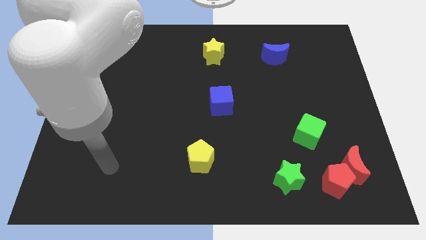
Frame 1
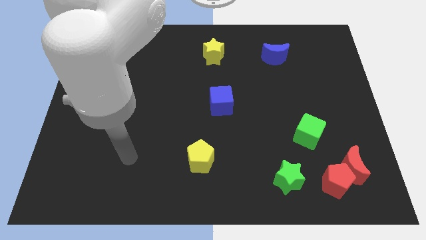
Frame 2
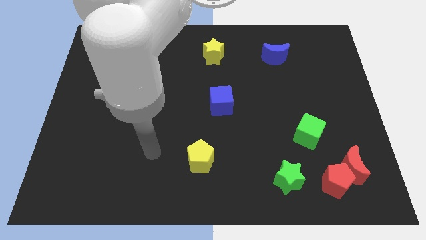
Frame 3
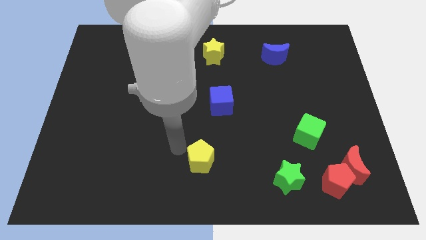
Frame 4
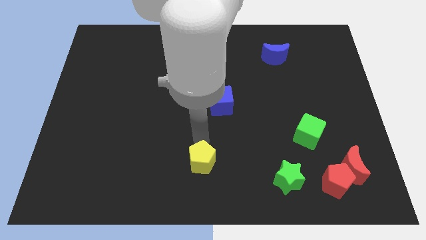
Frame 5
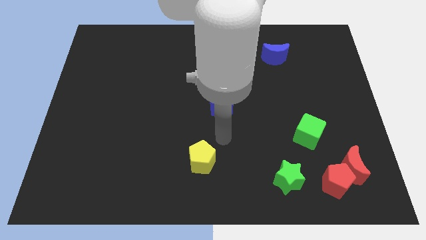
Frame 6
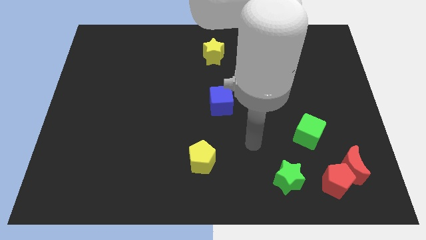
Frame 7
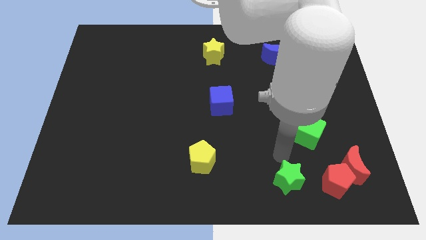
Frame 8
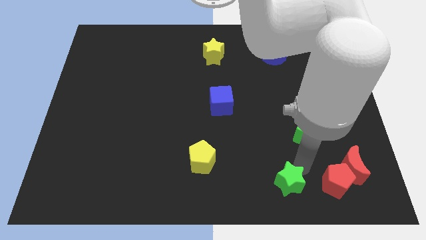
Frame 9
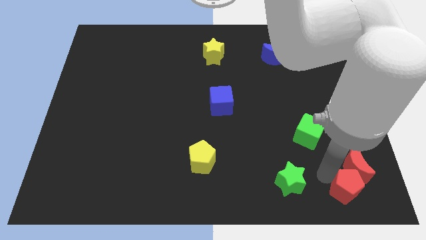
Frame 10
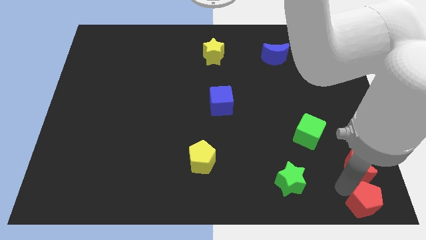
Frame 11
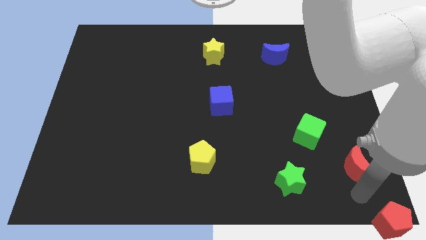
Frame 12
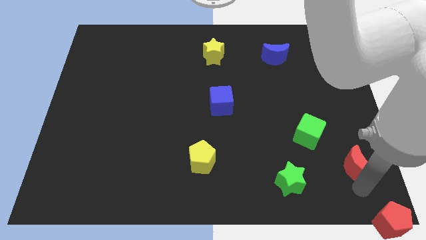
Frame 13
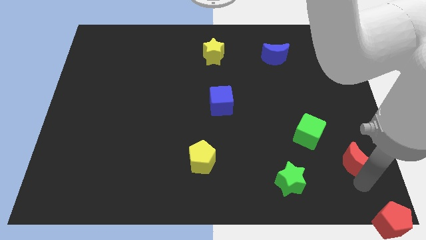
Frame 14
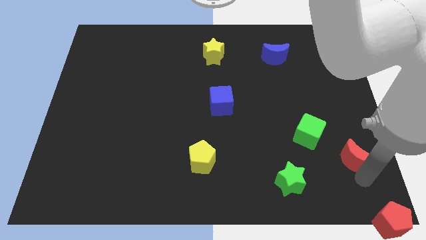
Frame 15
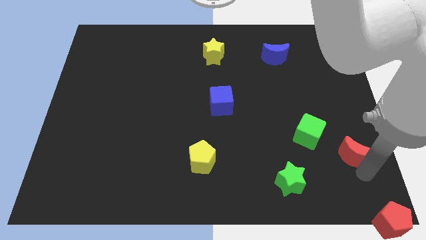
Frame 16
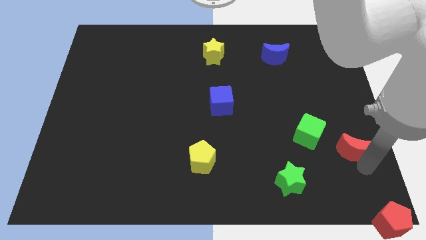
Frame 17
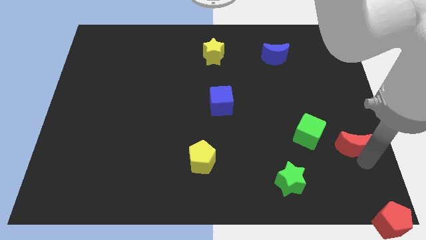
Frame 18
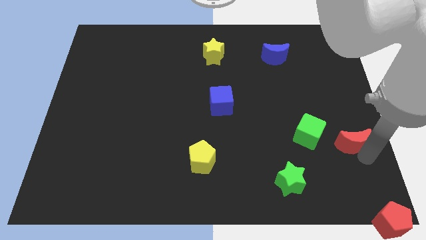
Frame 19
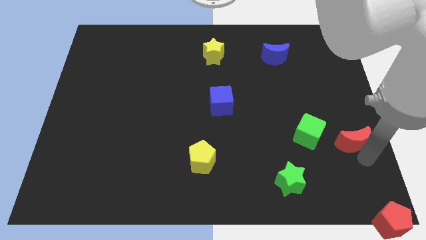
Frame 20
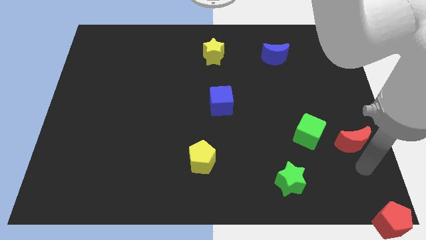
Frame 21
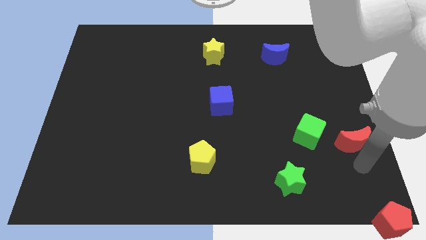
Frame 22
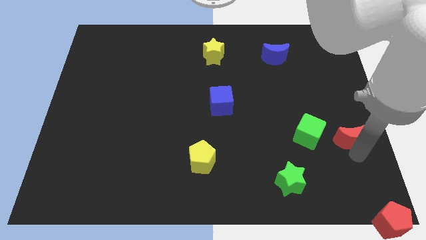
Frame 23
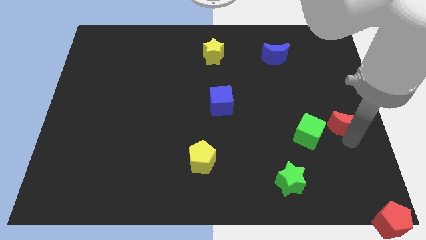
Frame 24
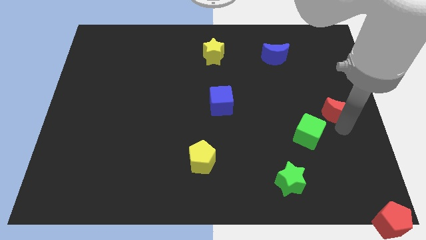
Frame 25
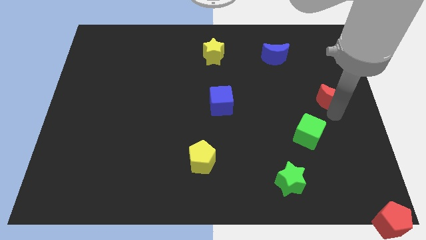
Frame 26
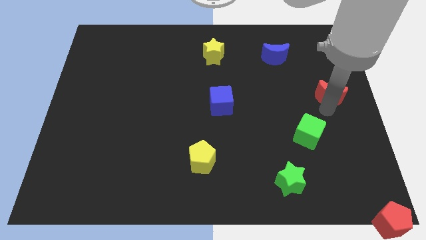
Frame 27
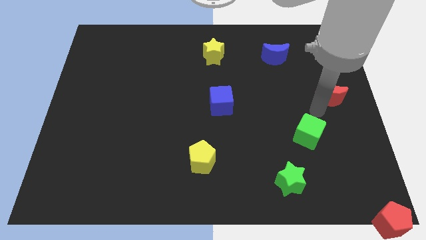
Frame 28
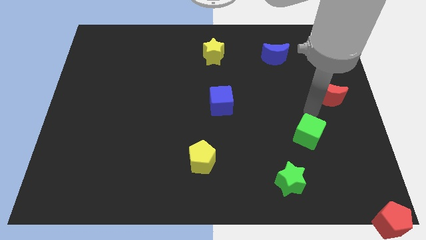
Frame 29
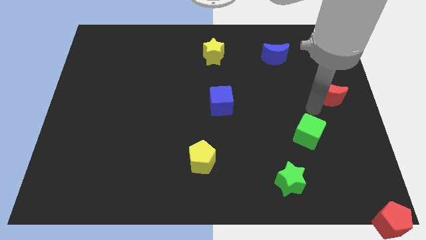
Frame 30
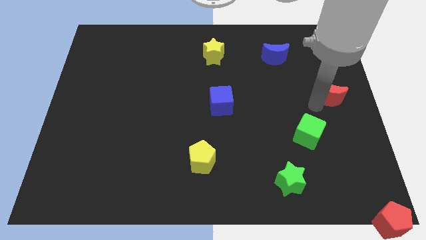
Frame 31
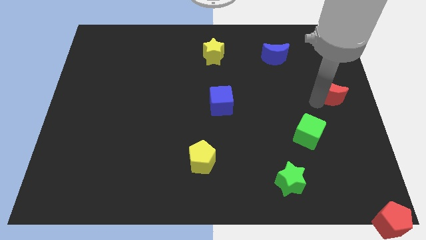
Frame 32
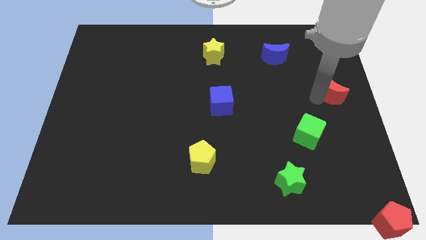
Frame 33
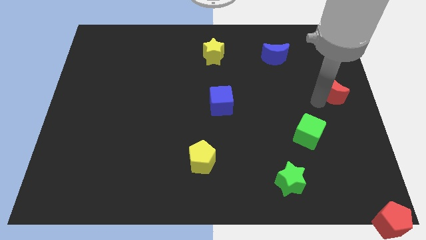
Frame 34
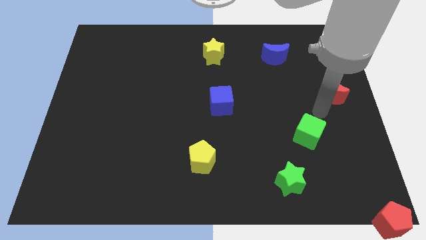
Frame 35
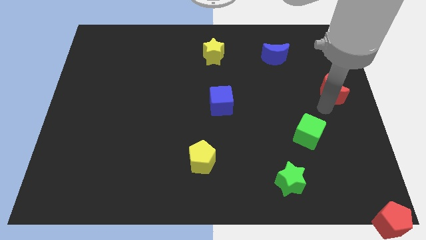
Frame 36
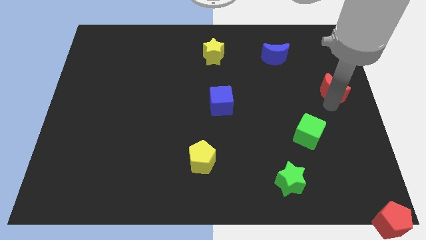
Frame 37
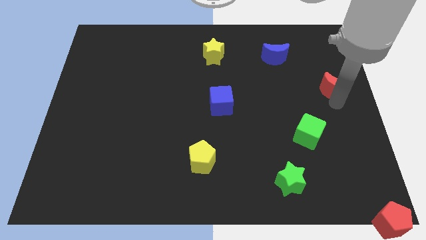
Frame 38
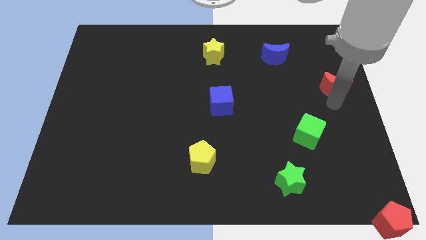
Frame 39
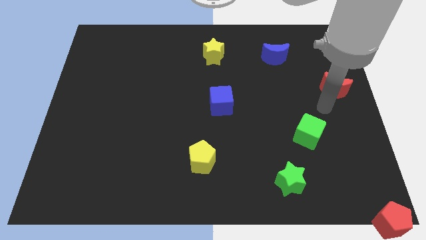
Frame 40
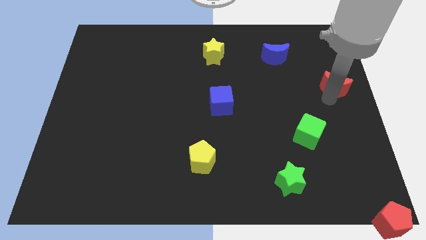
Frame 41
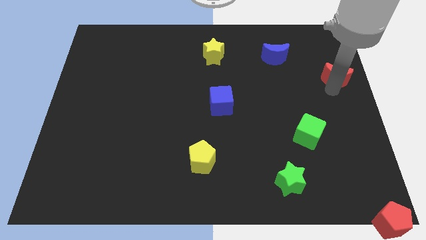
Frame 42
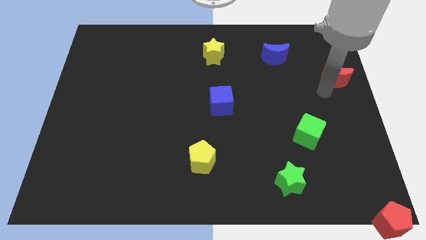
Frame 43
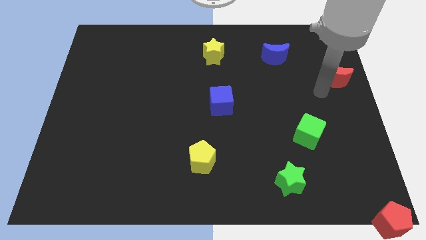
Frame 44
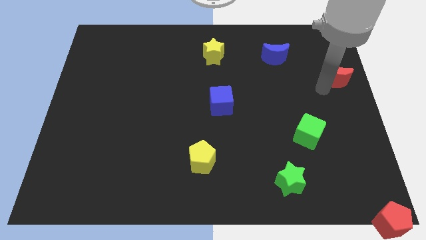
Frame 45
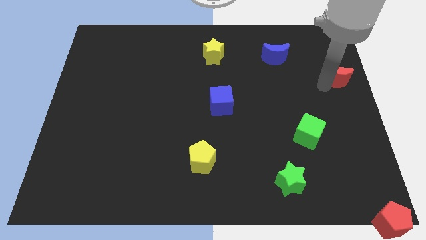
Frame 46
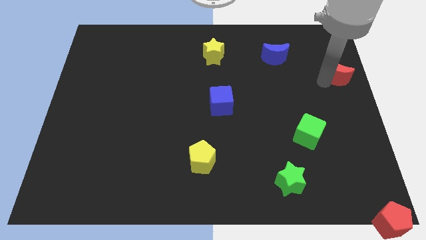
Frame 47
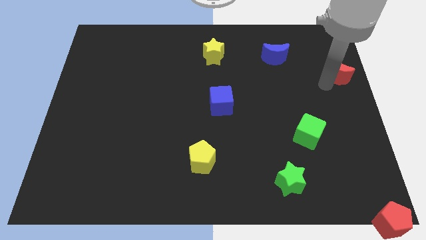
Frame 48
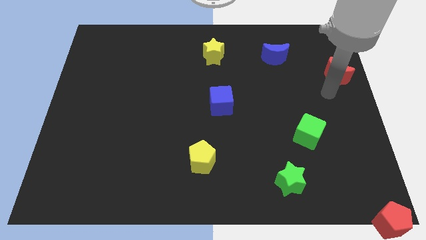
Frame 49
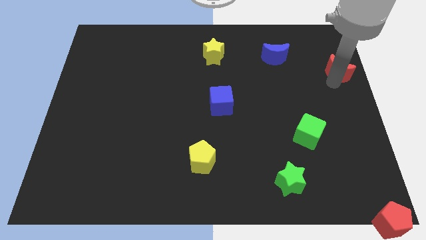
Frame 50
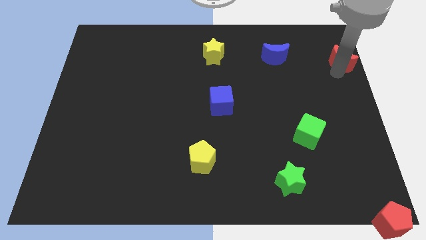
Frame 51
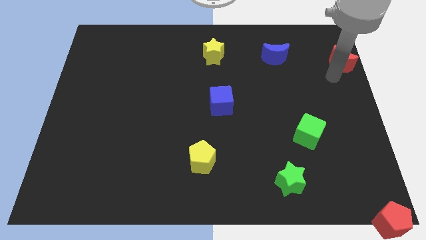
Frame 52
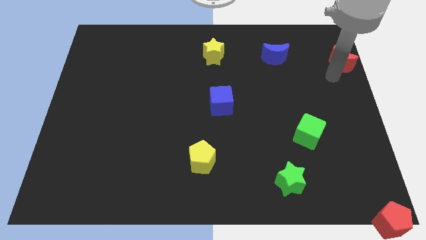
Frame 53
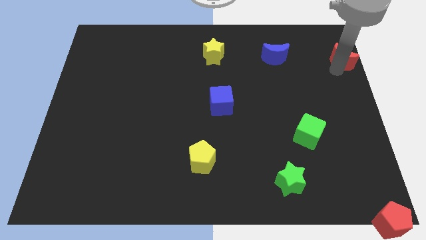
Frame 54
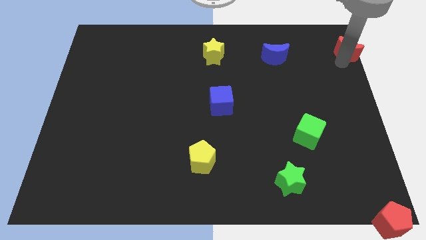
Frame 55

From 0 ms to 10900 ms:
slide the red moon to the top right
